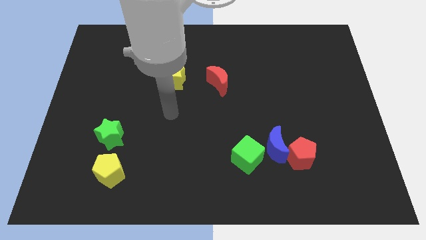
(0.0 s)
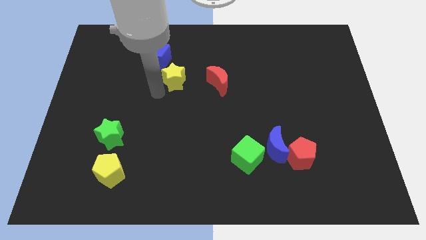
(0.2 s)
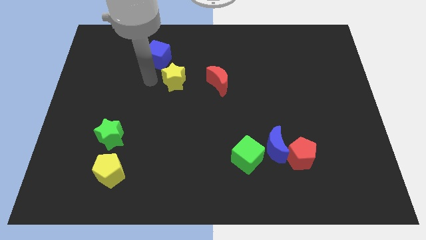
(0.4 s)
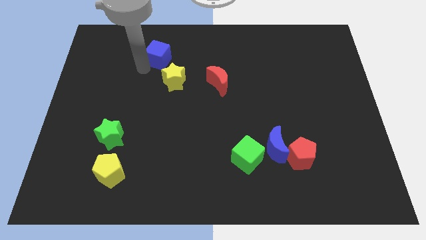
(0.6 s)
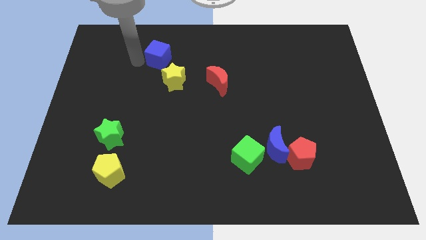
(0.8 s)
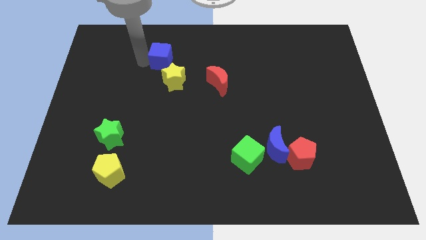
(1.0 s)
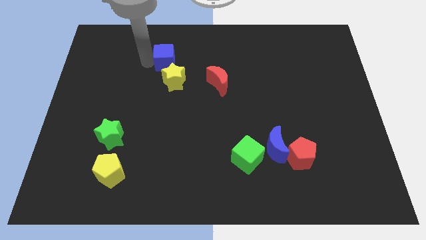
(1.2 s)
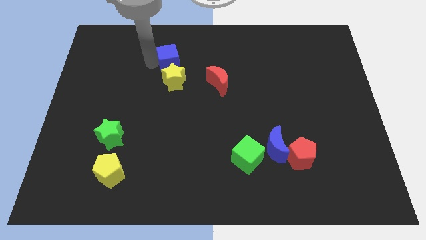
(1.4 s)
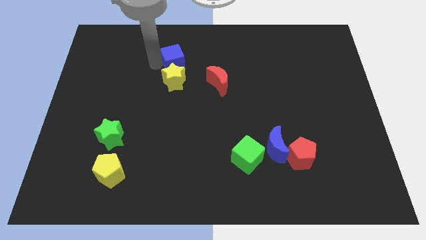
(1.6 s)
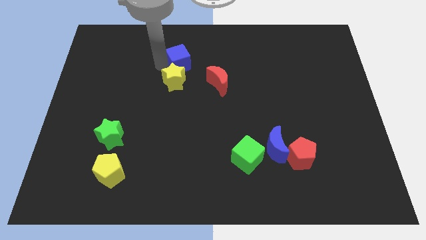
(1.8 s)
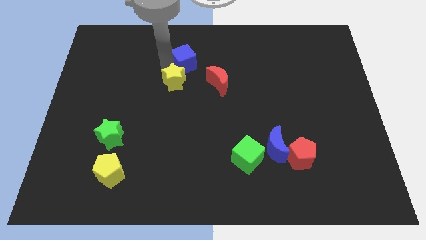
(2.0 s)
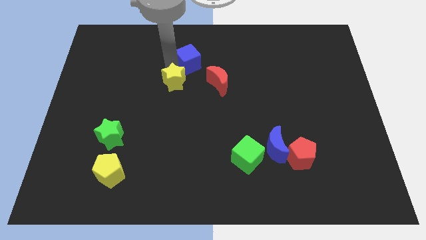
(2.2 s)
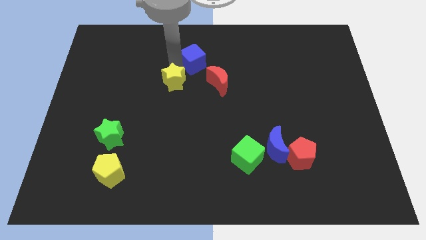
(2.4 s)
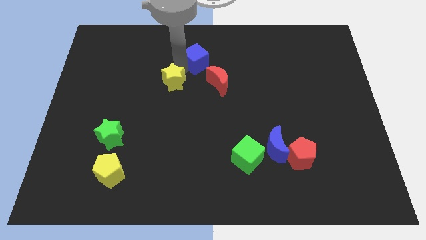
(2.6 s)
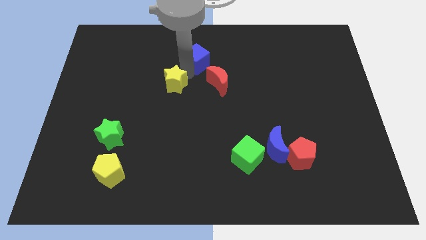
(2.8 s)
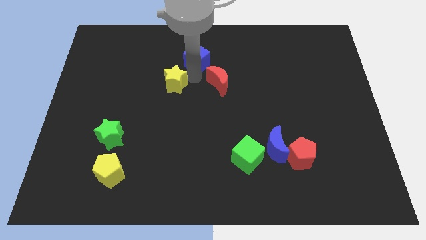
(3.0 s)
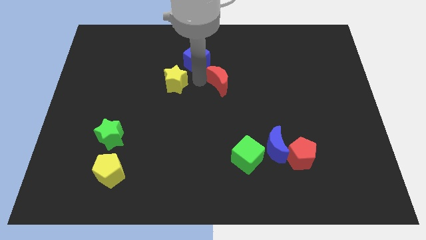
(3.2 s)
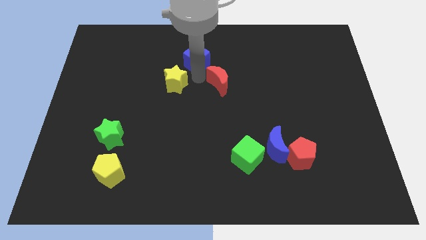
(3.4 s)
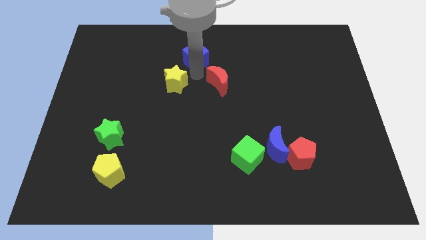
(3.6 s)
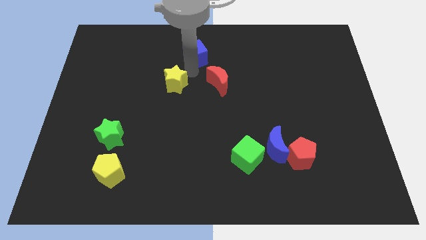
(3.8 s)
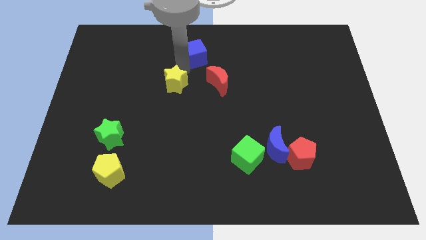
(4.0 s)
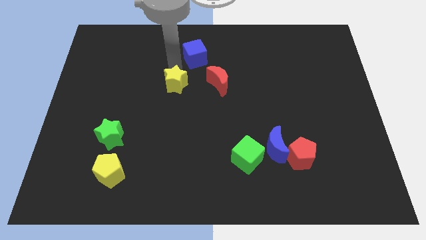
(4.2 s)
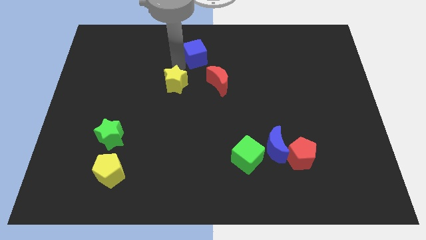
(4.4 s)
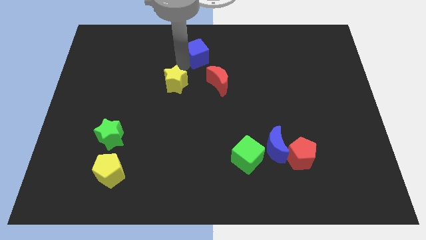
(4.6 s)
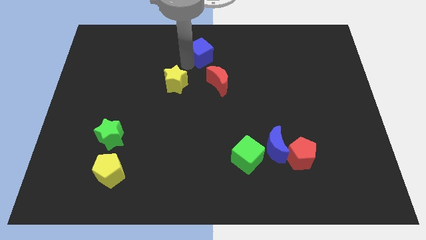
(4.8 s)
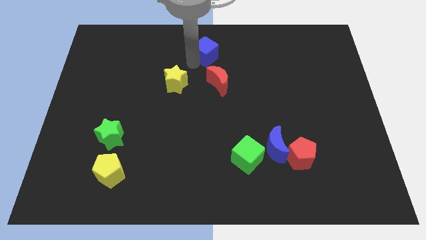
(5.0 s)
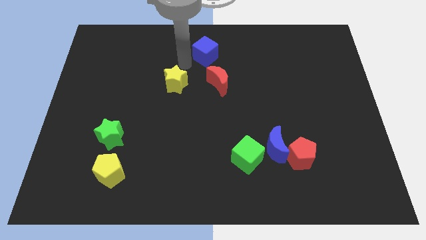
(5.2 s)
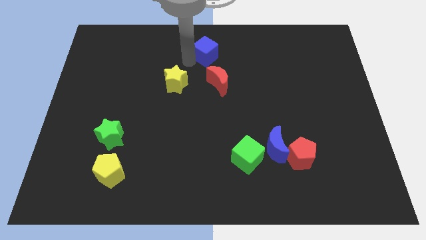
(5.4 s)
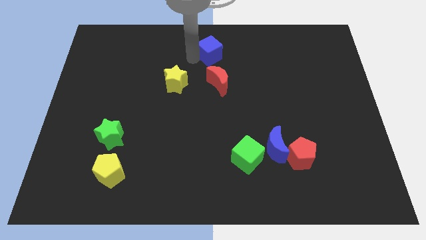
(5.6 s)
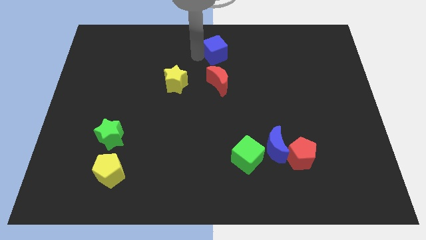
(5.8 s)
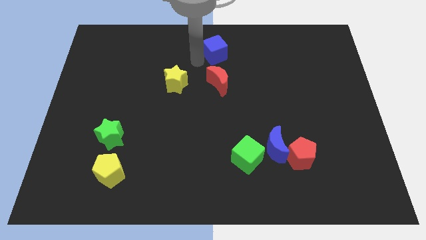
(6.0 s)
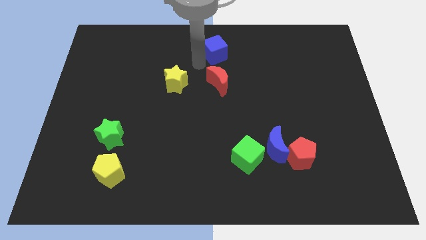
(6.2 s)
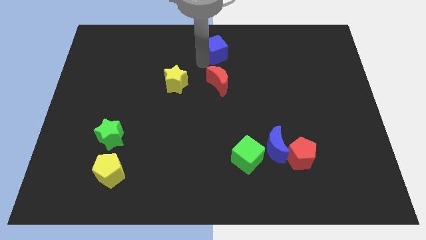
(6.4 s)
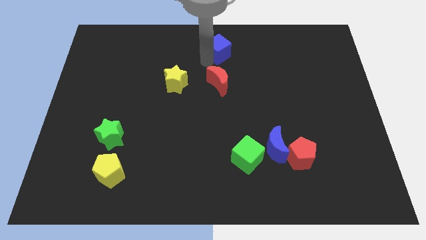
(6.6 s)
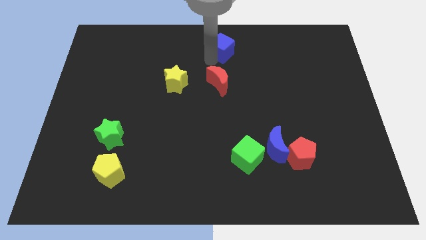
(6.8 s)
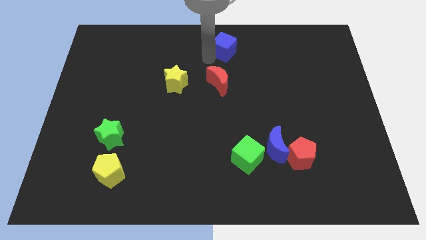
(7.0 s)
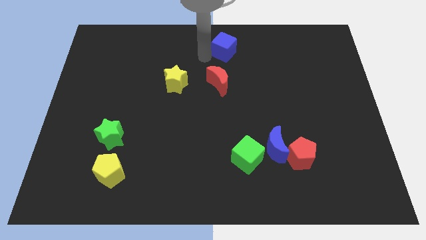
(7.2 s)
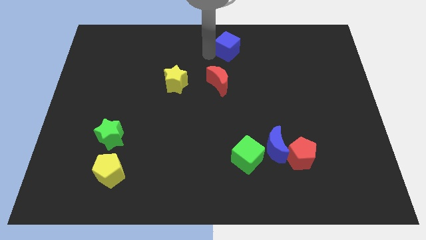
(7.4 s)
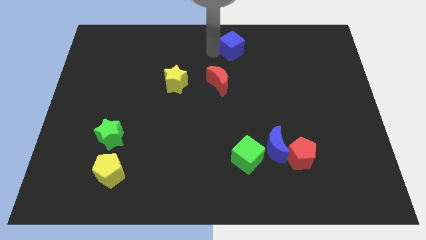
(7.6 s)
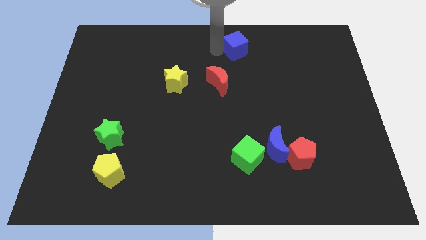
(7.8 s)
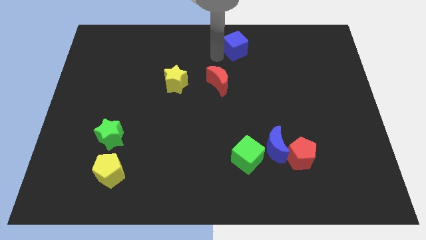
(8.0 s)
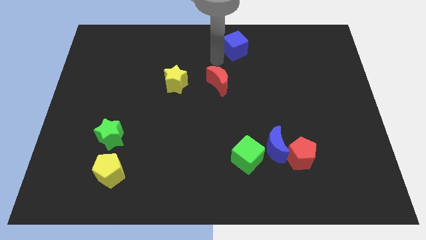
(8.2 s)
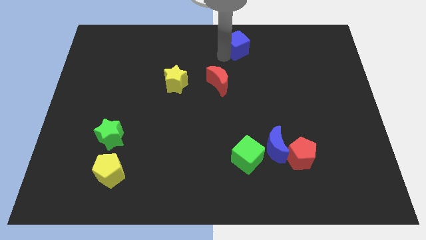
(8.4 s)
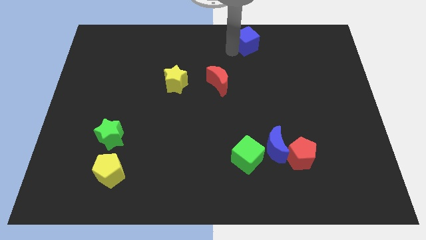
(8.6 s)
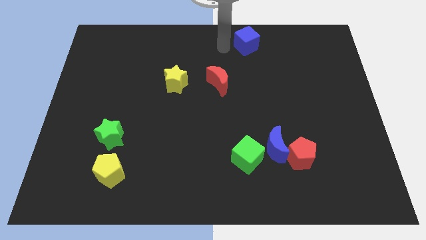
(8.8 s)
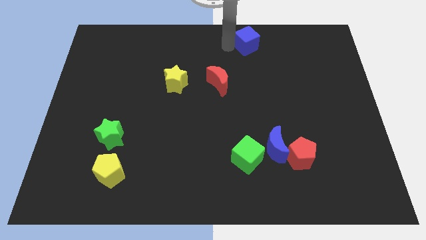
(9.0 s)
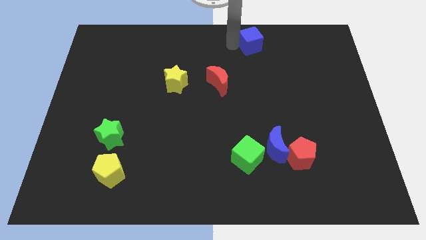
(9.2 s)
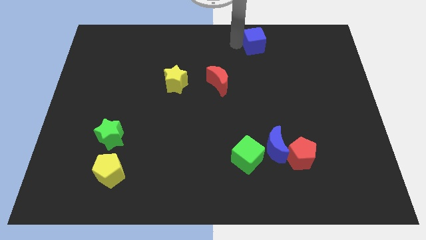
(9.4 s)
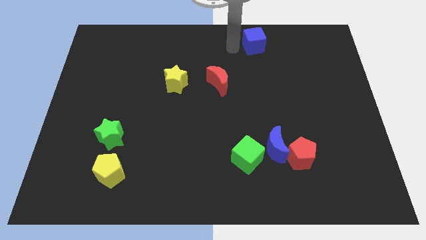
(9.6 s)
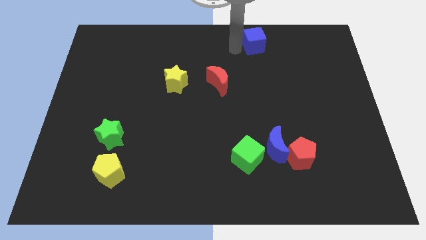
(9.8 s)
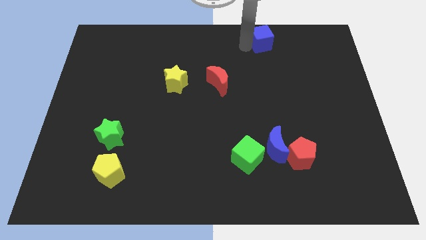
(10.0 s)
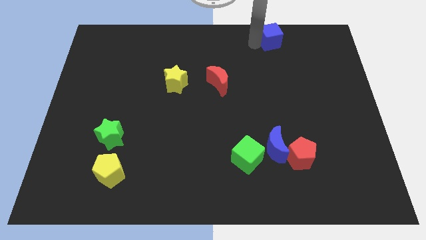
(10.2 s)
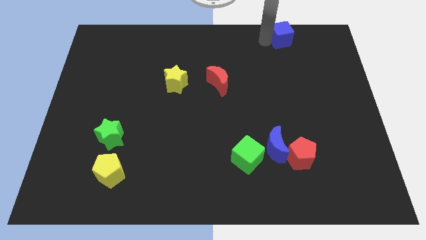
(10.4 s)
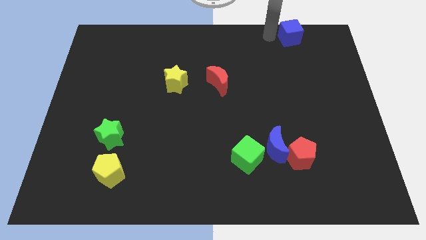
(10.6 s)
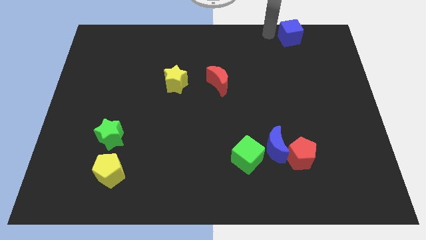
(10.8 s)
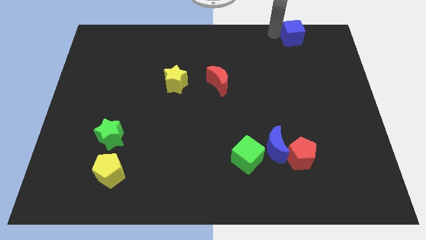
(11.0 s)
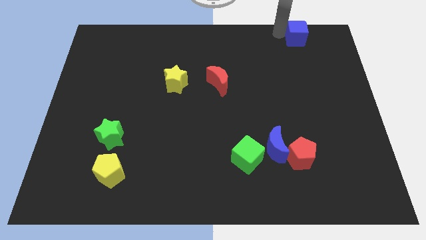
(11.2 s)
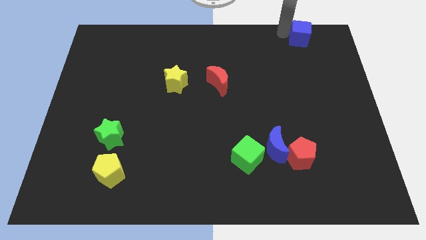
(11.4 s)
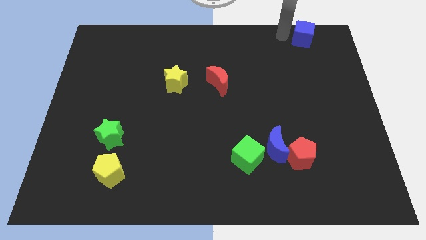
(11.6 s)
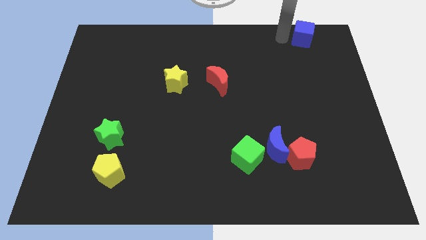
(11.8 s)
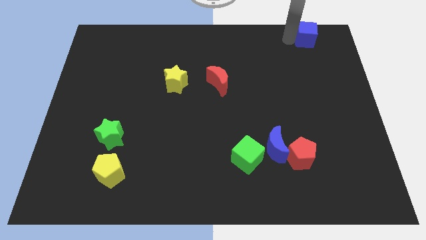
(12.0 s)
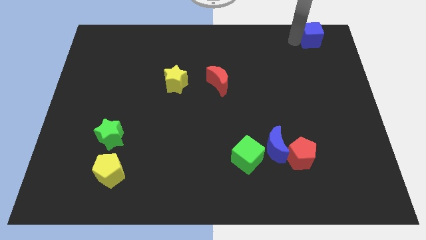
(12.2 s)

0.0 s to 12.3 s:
push the blue cube to the top right corner
